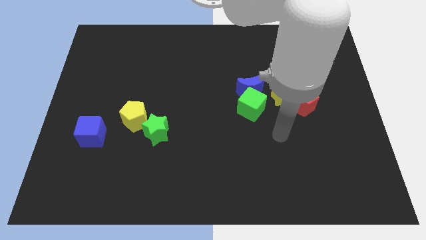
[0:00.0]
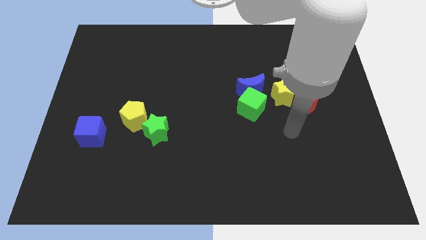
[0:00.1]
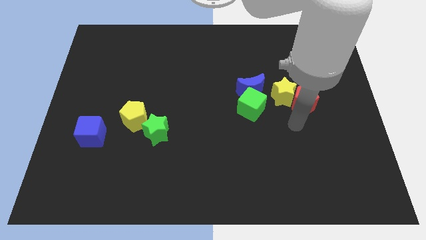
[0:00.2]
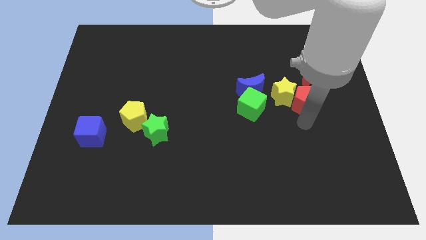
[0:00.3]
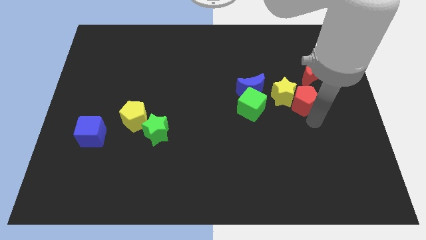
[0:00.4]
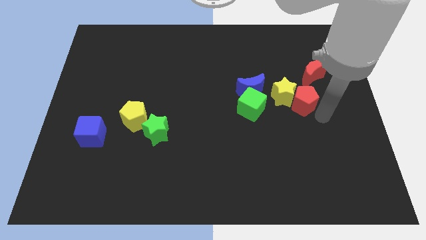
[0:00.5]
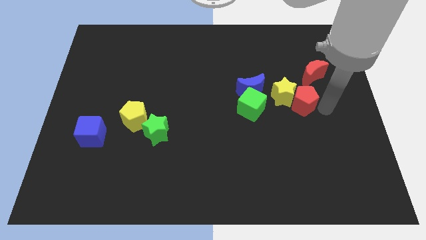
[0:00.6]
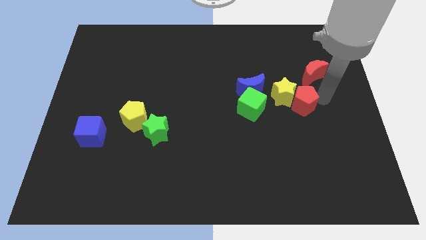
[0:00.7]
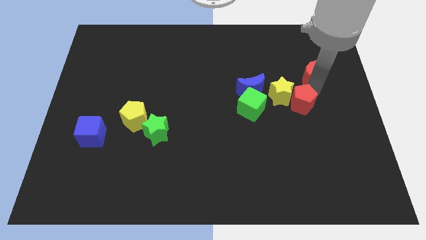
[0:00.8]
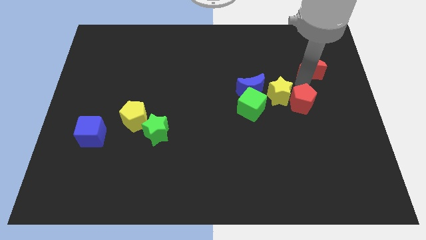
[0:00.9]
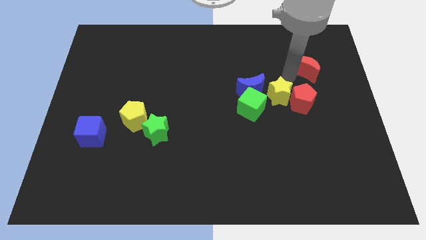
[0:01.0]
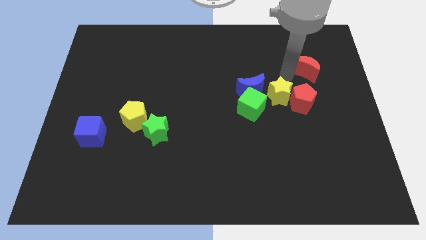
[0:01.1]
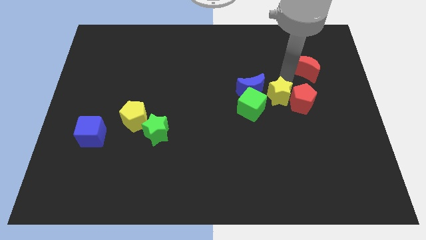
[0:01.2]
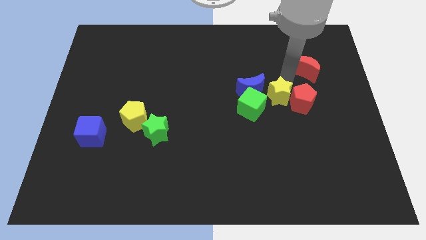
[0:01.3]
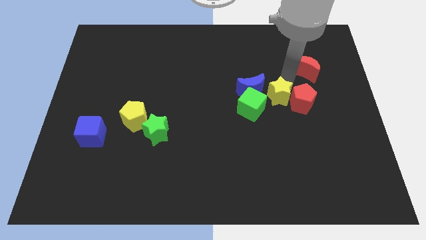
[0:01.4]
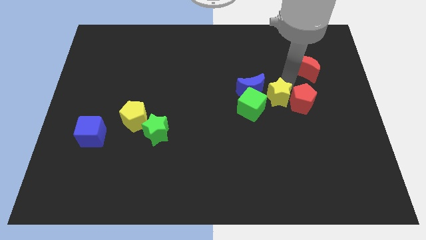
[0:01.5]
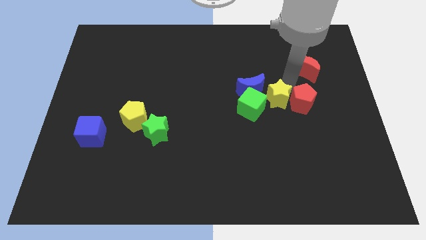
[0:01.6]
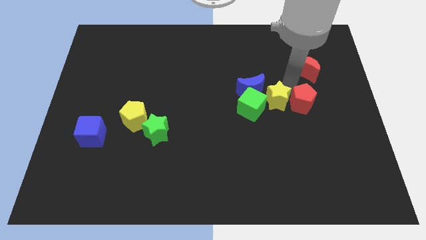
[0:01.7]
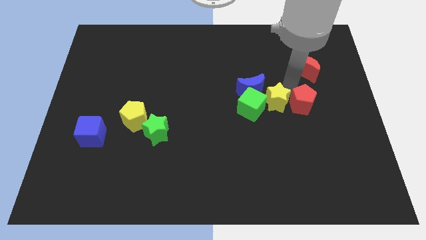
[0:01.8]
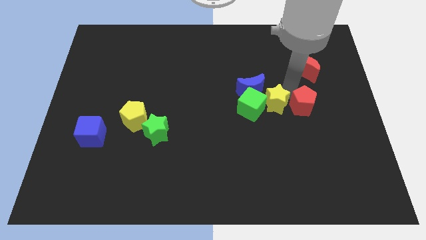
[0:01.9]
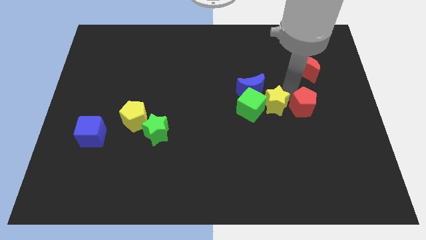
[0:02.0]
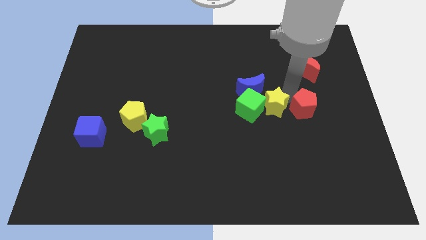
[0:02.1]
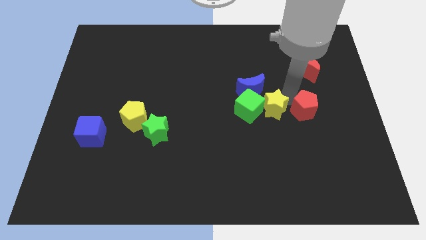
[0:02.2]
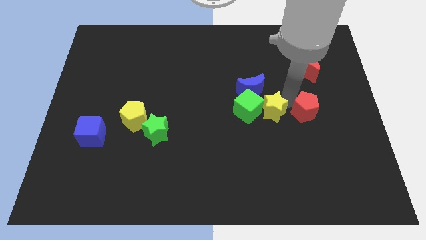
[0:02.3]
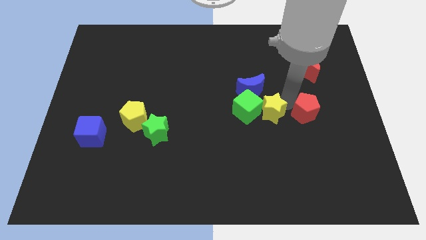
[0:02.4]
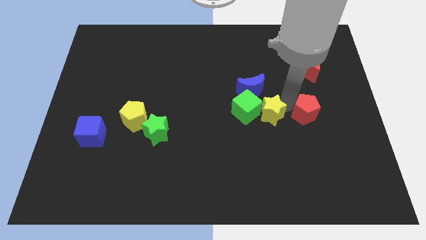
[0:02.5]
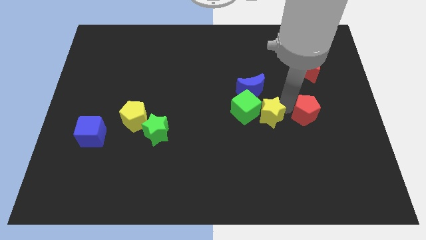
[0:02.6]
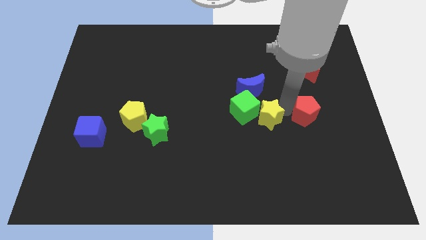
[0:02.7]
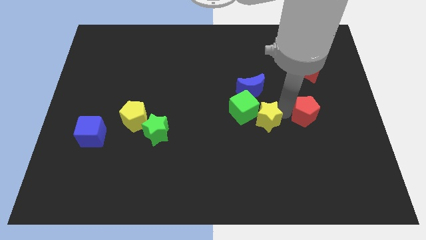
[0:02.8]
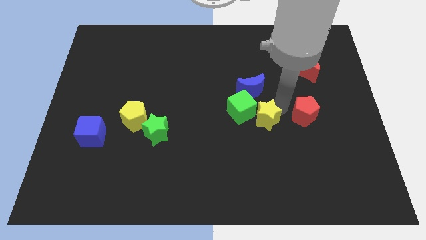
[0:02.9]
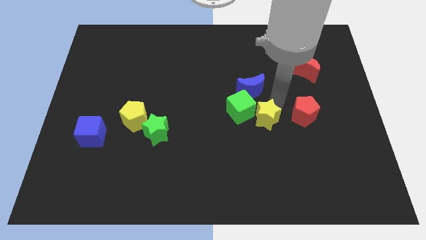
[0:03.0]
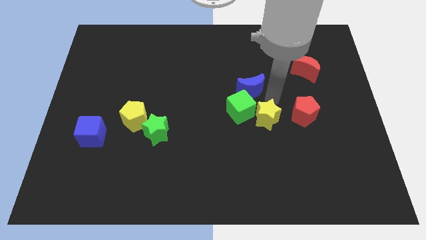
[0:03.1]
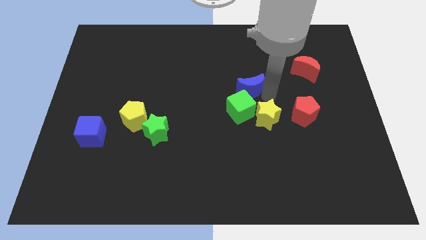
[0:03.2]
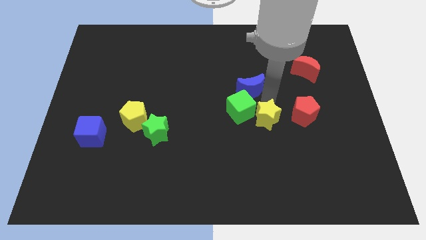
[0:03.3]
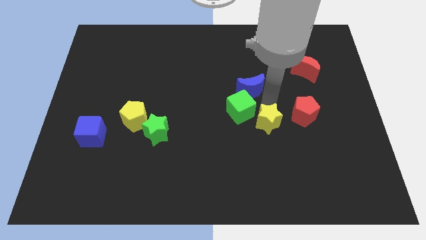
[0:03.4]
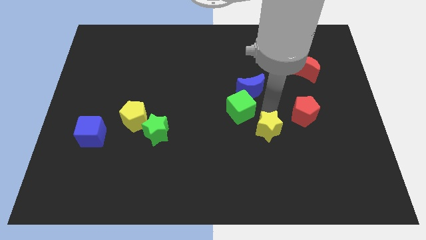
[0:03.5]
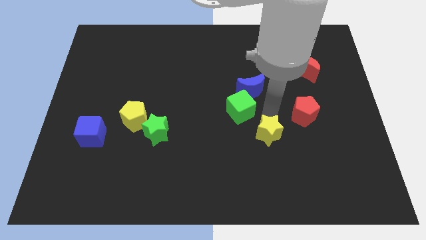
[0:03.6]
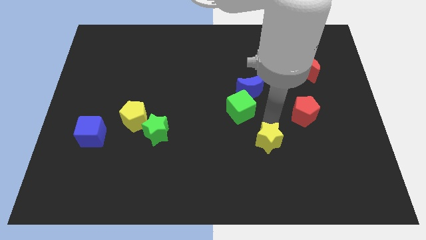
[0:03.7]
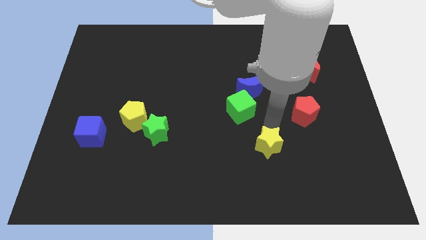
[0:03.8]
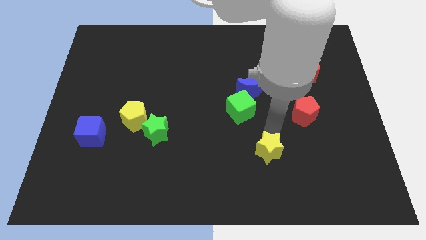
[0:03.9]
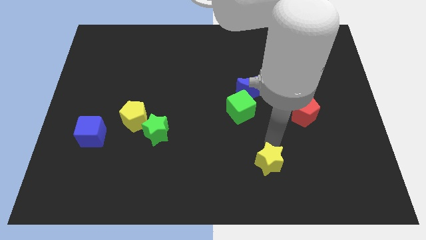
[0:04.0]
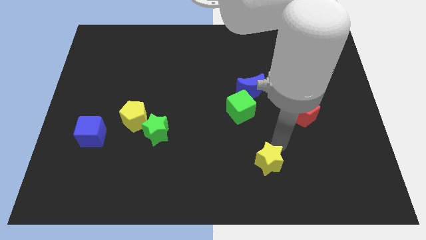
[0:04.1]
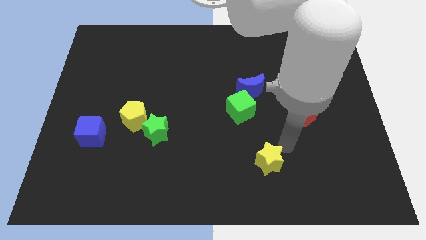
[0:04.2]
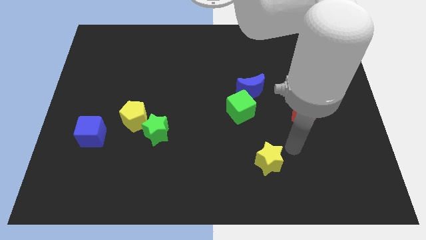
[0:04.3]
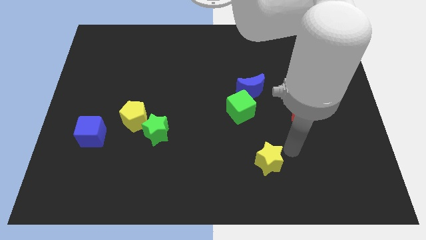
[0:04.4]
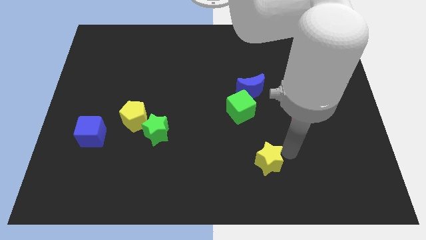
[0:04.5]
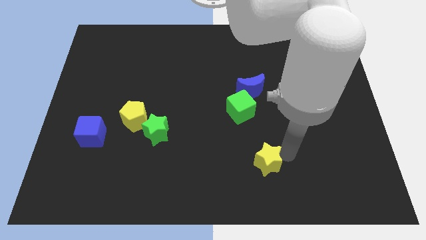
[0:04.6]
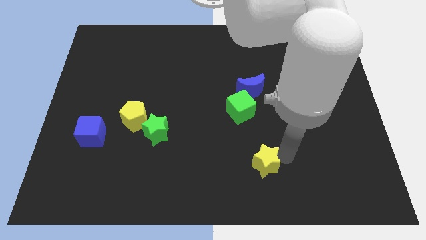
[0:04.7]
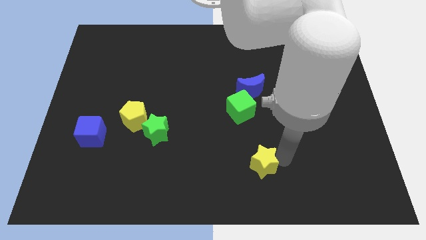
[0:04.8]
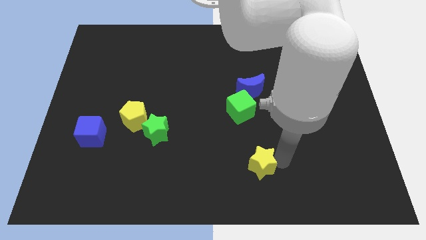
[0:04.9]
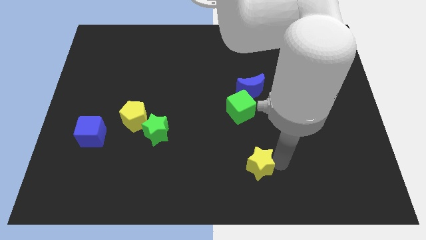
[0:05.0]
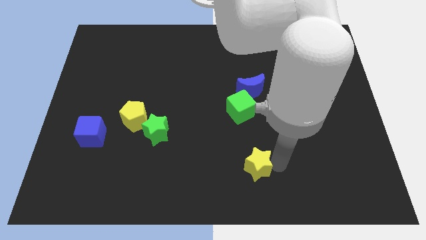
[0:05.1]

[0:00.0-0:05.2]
push the yellow star to the bottom side

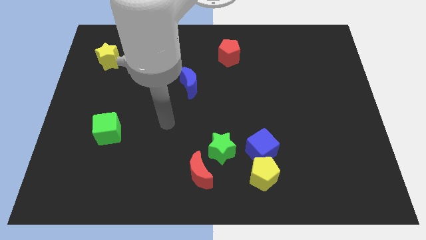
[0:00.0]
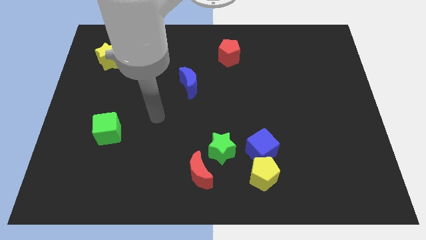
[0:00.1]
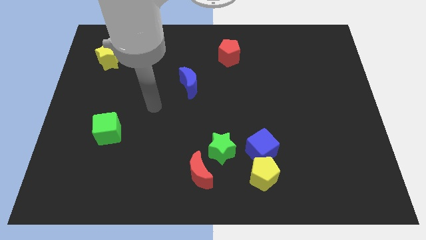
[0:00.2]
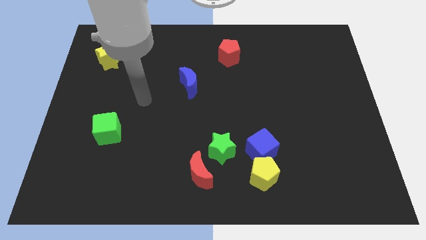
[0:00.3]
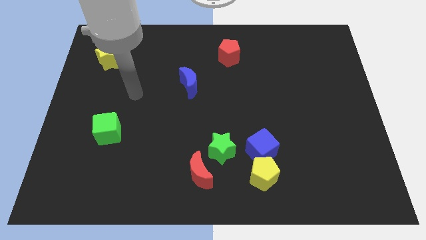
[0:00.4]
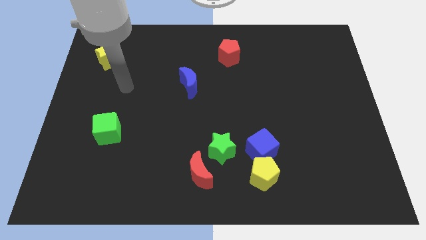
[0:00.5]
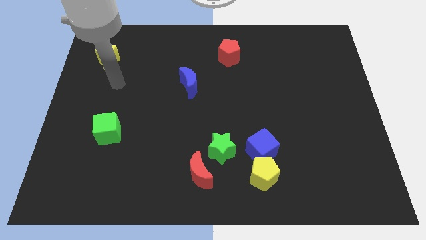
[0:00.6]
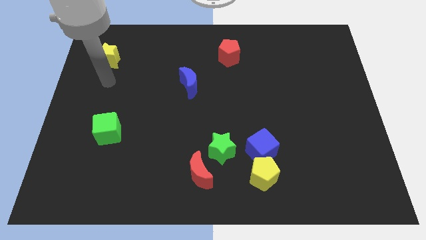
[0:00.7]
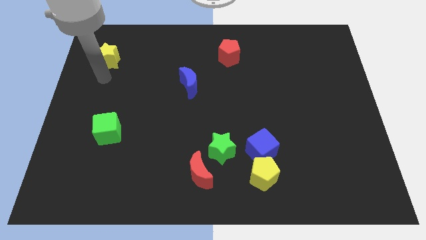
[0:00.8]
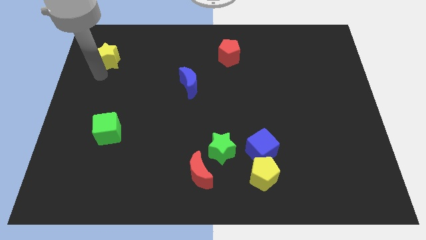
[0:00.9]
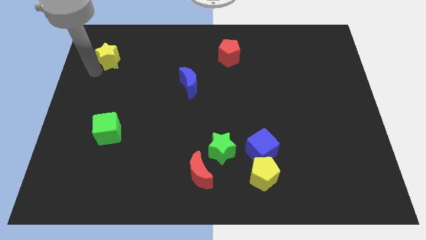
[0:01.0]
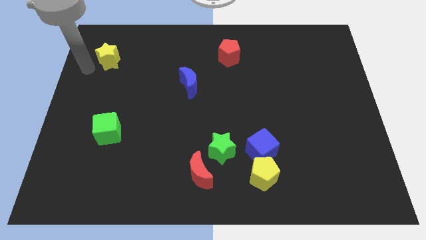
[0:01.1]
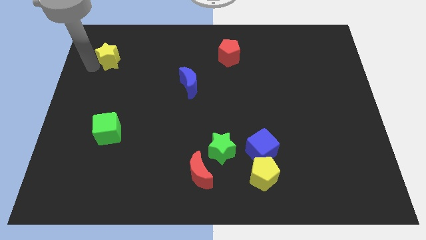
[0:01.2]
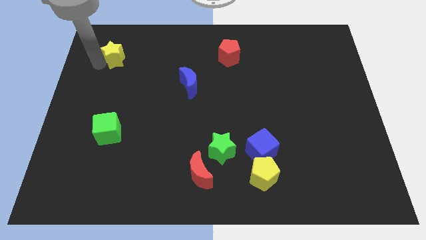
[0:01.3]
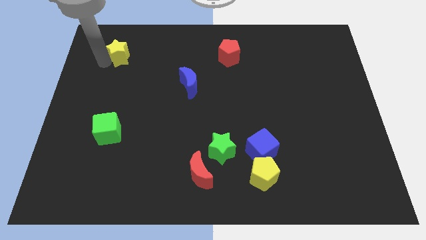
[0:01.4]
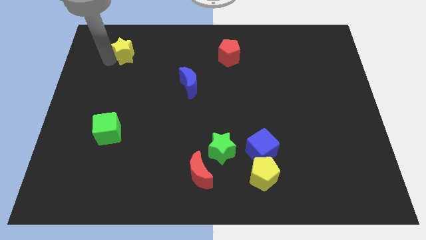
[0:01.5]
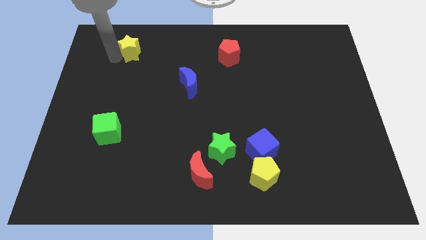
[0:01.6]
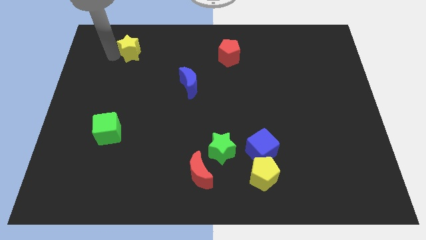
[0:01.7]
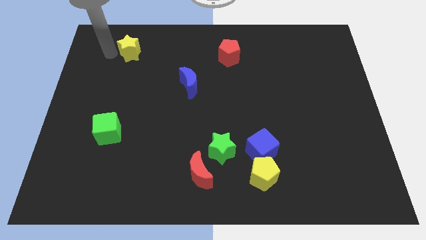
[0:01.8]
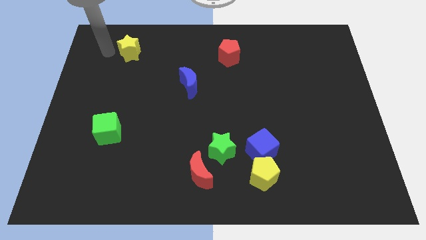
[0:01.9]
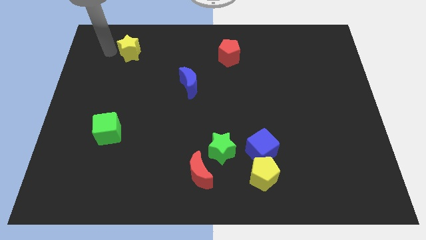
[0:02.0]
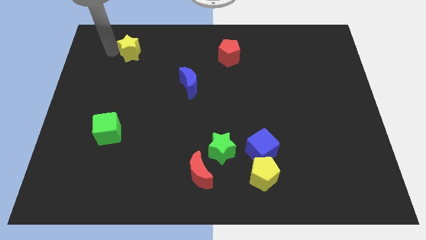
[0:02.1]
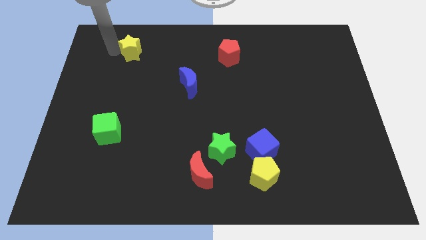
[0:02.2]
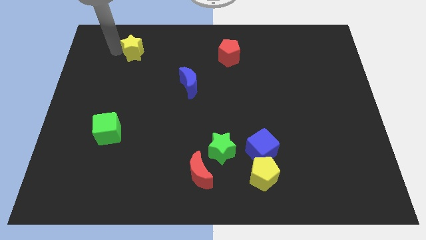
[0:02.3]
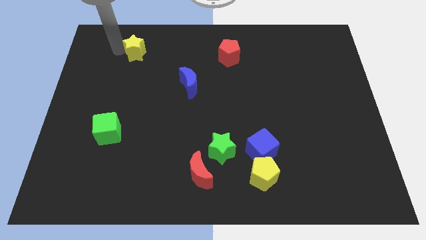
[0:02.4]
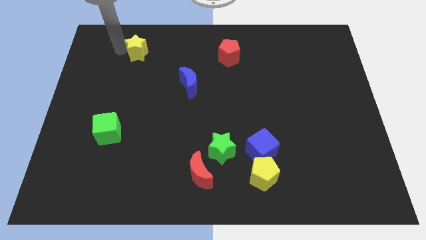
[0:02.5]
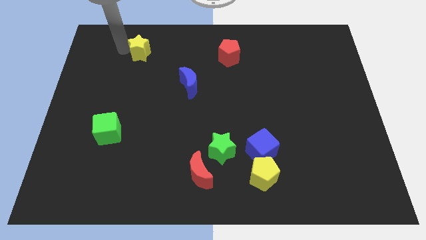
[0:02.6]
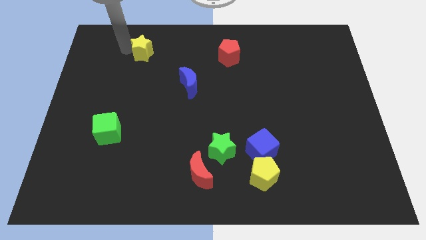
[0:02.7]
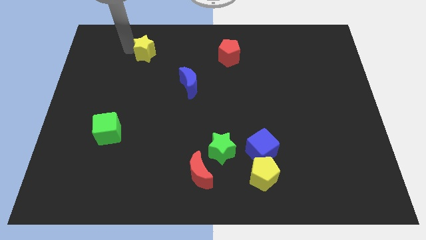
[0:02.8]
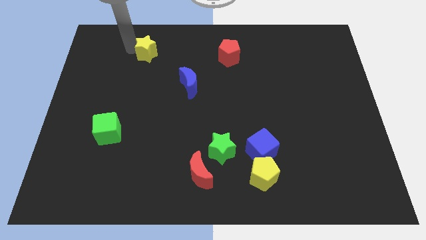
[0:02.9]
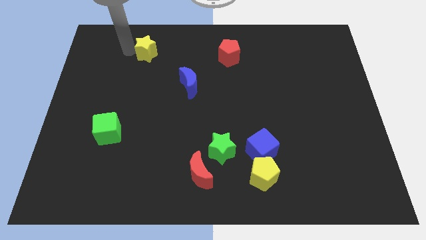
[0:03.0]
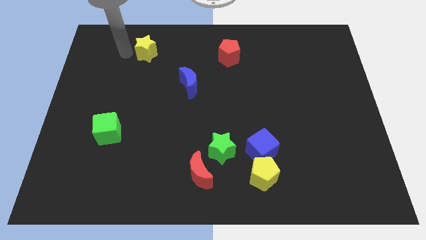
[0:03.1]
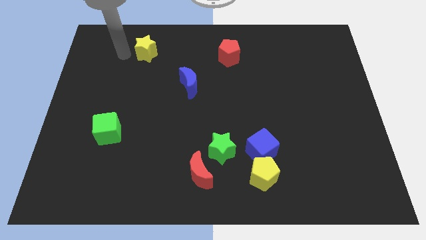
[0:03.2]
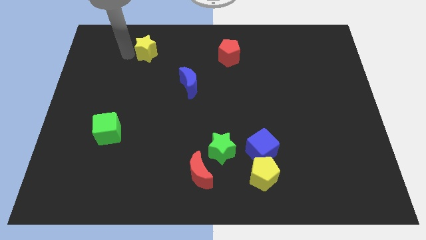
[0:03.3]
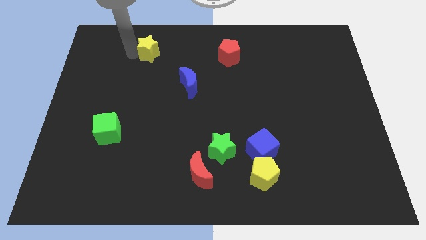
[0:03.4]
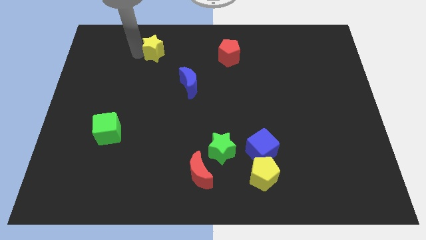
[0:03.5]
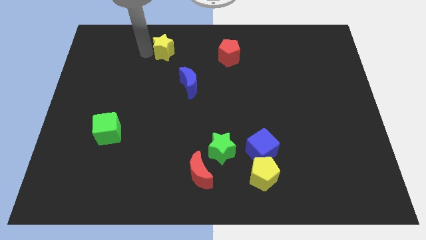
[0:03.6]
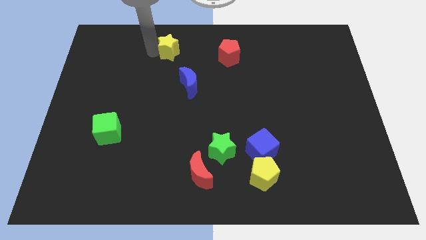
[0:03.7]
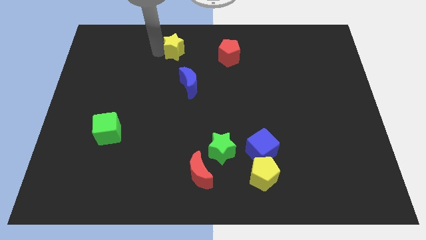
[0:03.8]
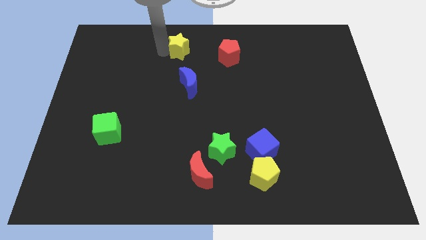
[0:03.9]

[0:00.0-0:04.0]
slide the yellow star to the top
